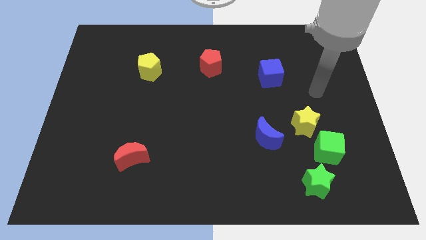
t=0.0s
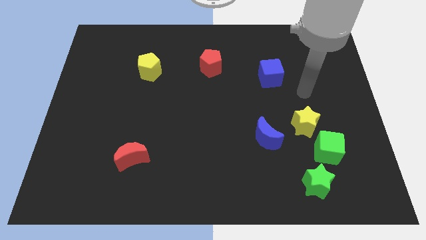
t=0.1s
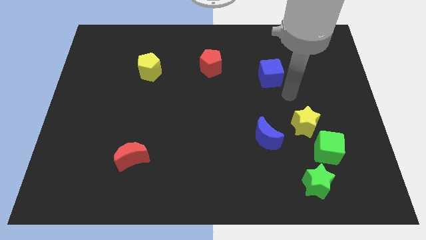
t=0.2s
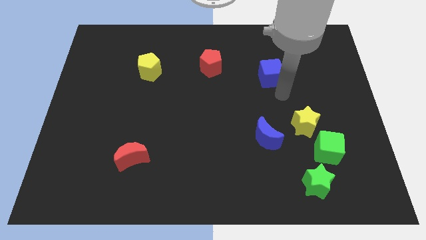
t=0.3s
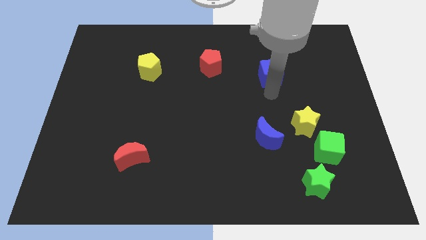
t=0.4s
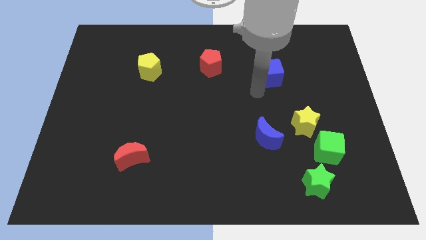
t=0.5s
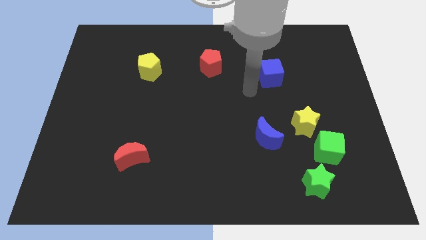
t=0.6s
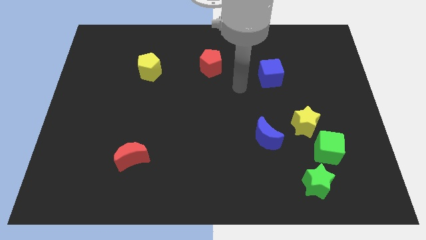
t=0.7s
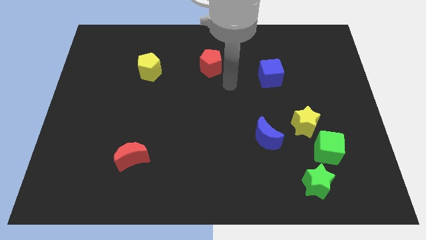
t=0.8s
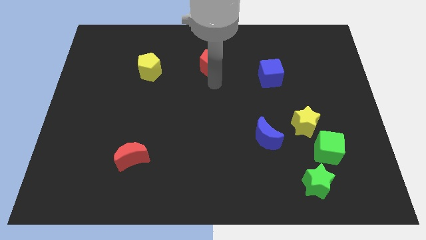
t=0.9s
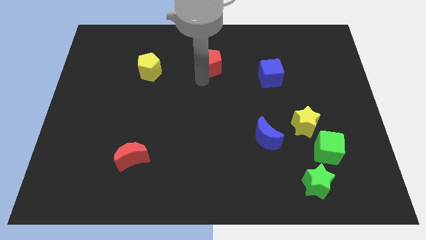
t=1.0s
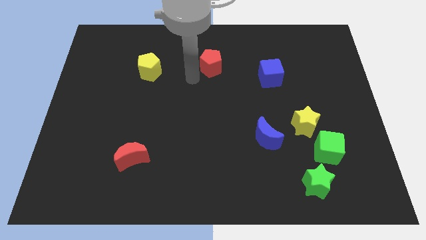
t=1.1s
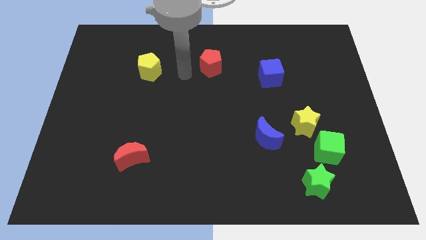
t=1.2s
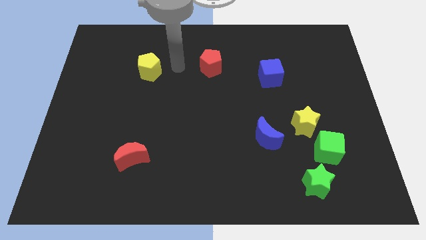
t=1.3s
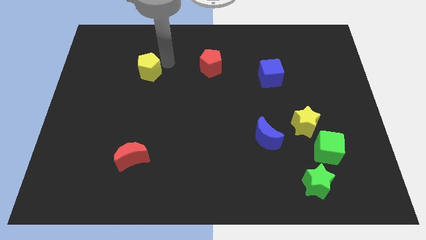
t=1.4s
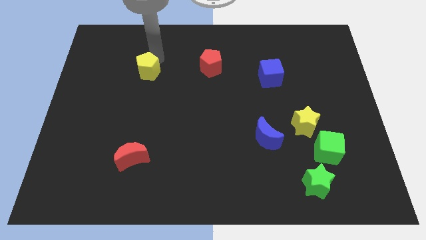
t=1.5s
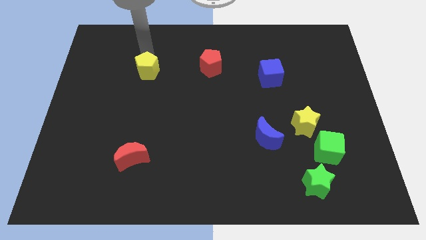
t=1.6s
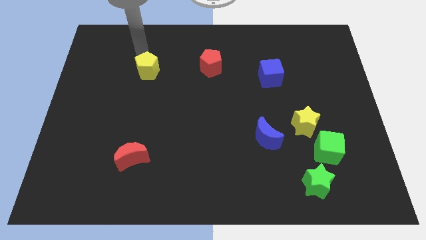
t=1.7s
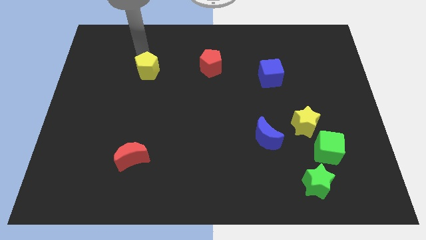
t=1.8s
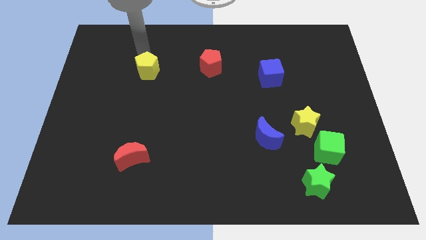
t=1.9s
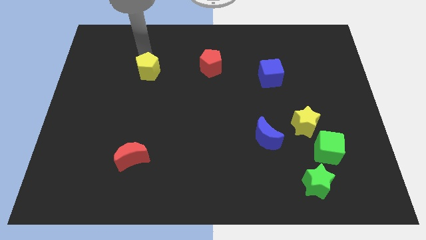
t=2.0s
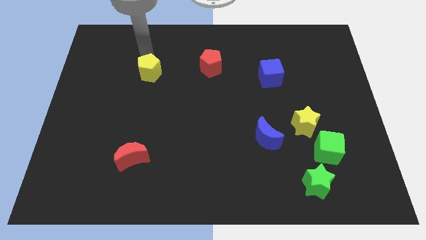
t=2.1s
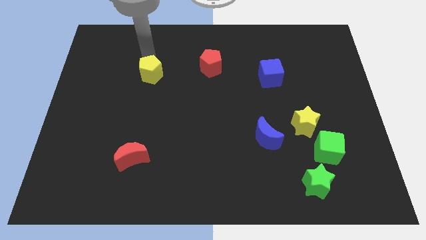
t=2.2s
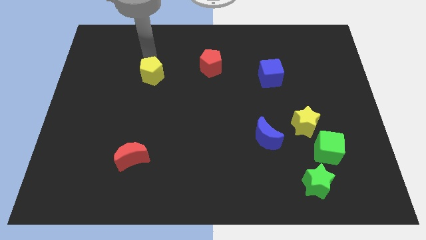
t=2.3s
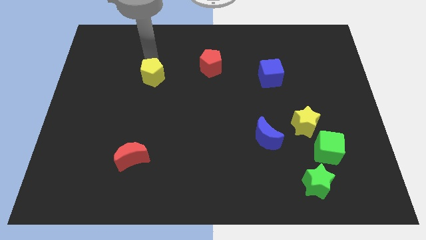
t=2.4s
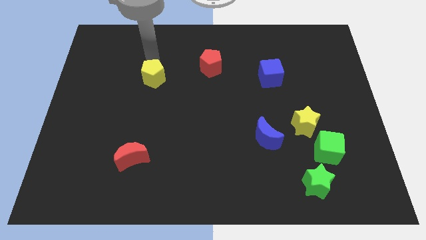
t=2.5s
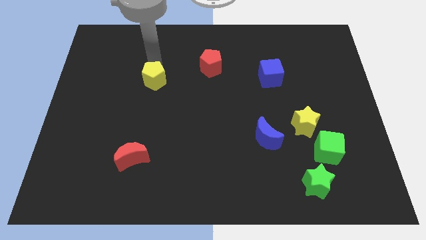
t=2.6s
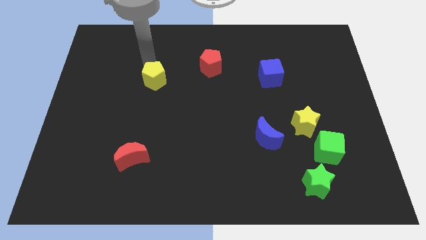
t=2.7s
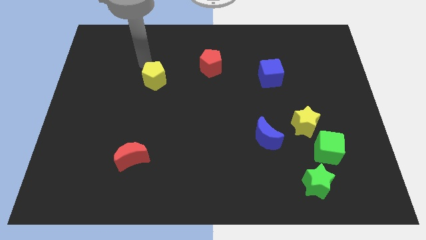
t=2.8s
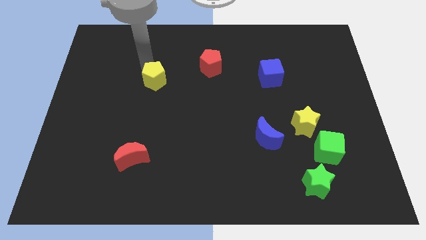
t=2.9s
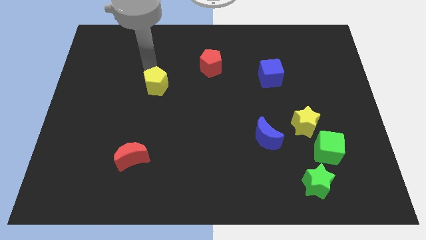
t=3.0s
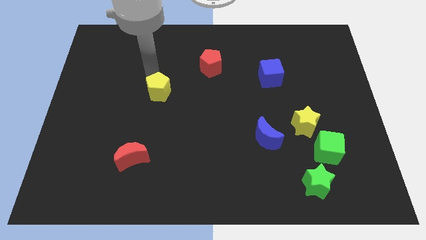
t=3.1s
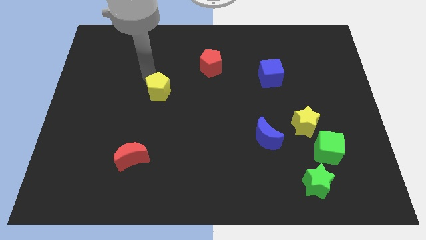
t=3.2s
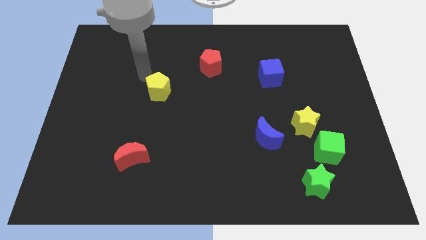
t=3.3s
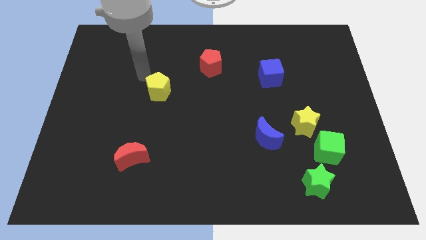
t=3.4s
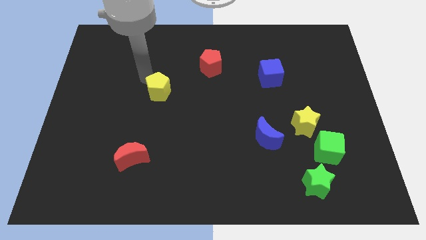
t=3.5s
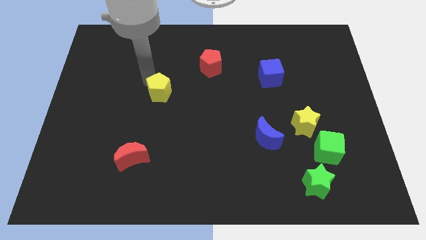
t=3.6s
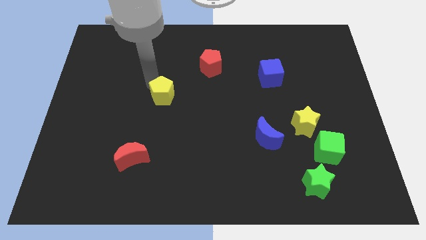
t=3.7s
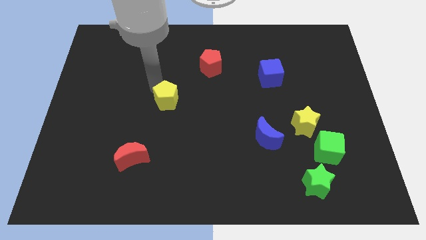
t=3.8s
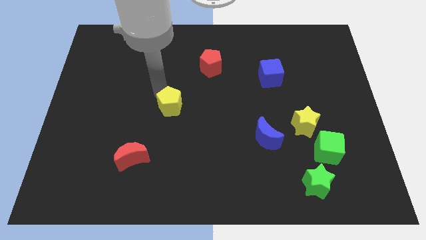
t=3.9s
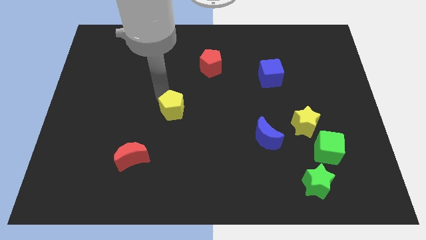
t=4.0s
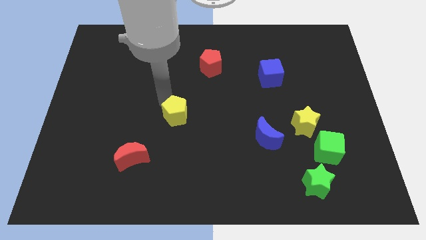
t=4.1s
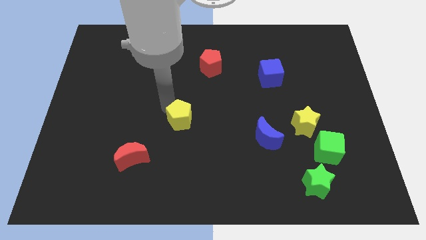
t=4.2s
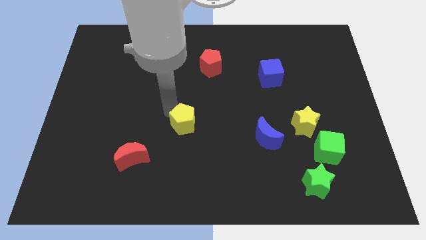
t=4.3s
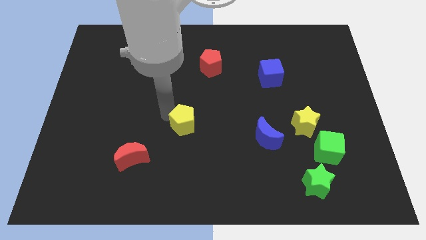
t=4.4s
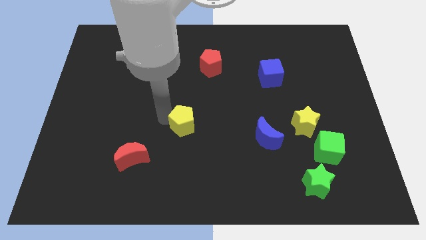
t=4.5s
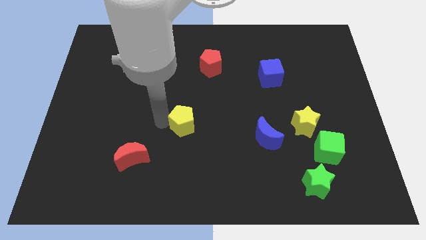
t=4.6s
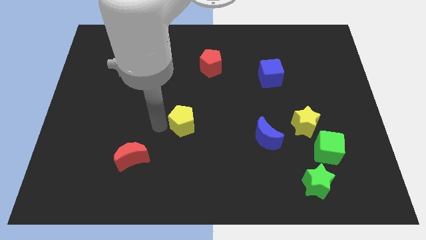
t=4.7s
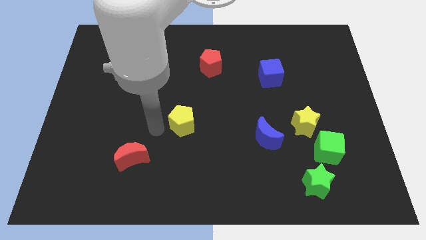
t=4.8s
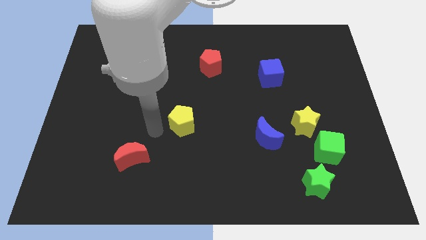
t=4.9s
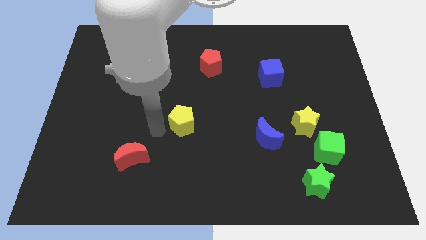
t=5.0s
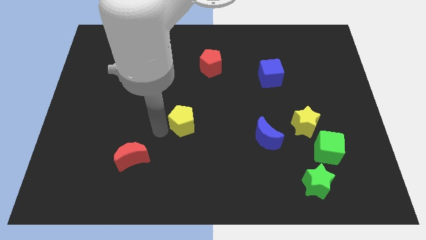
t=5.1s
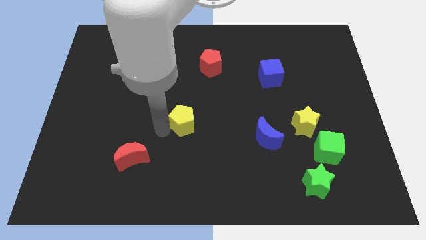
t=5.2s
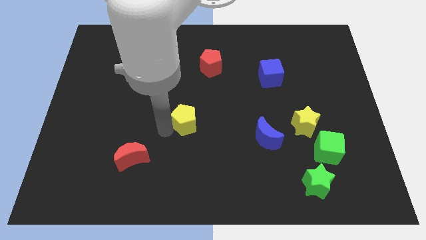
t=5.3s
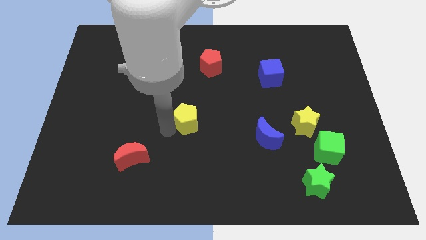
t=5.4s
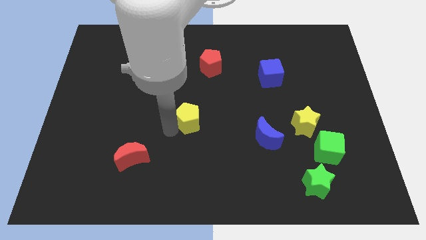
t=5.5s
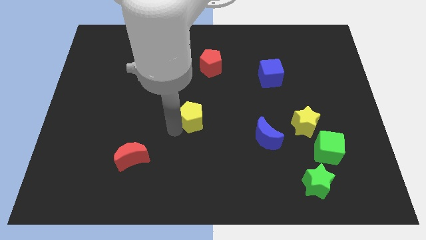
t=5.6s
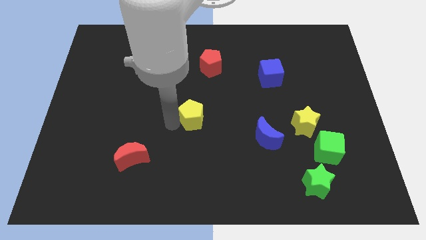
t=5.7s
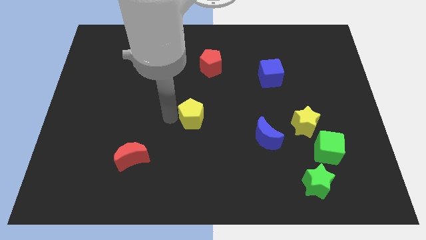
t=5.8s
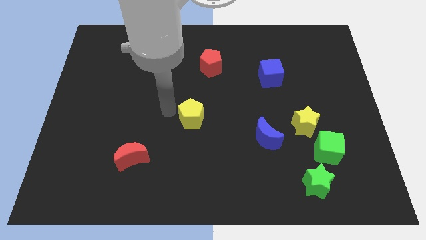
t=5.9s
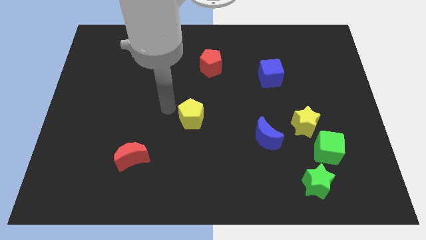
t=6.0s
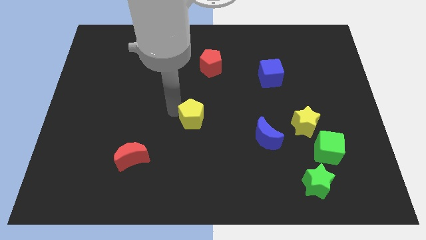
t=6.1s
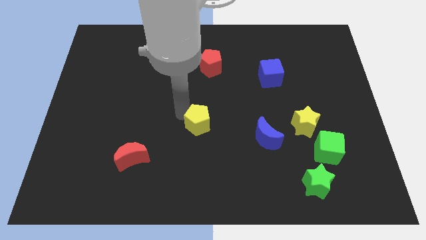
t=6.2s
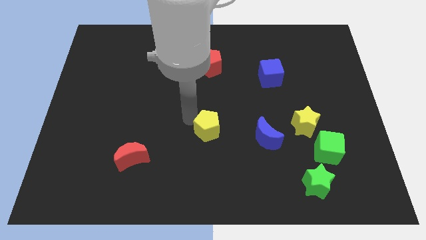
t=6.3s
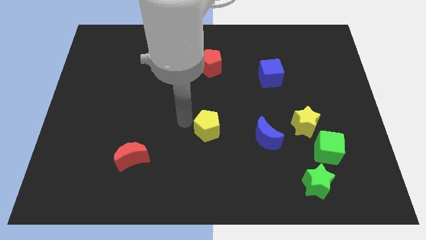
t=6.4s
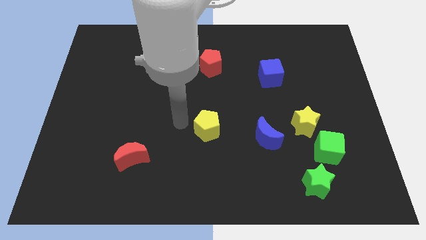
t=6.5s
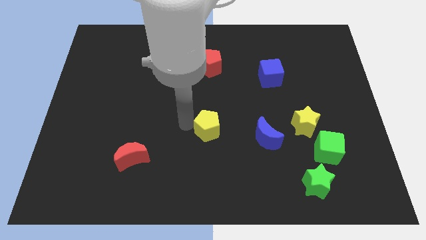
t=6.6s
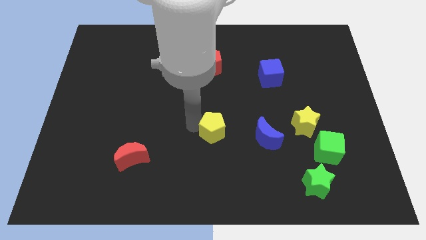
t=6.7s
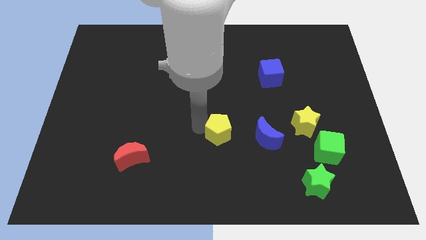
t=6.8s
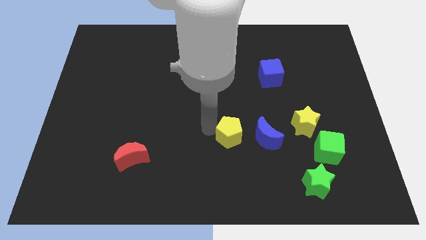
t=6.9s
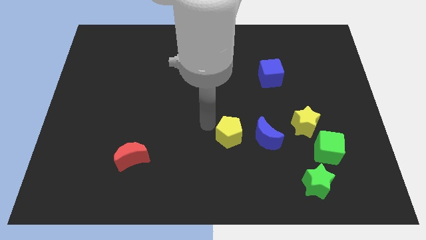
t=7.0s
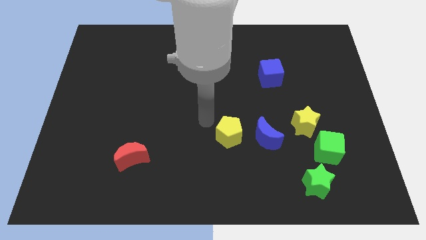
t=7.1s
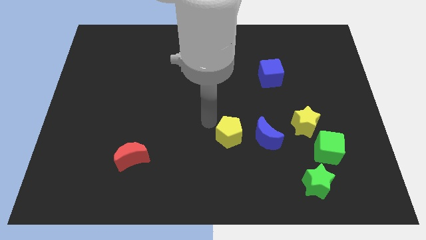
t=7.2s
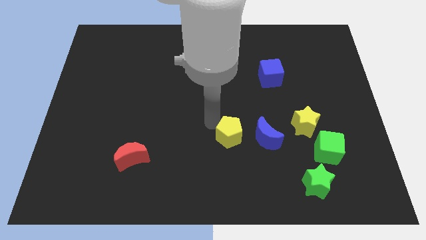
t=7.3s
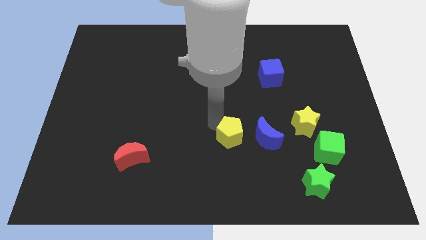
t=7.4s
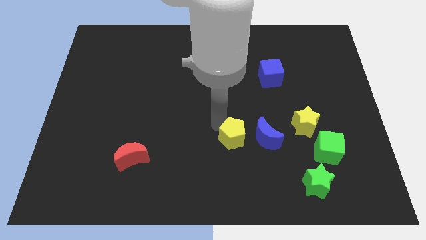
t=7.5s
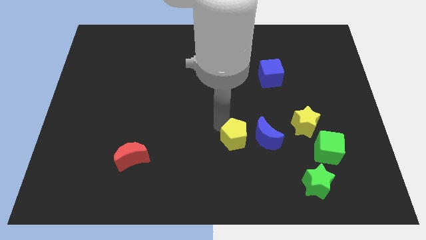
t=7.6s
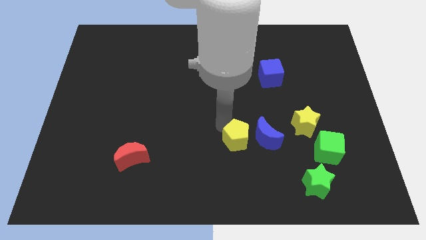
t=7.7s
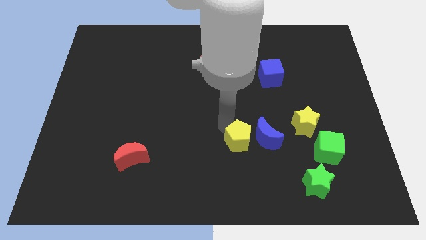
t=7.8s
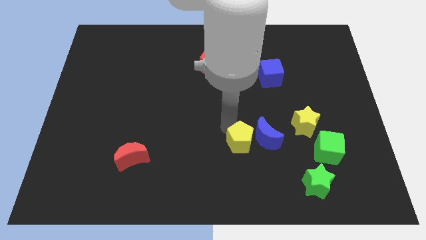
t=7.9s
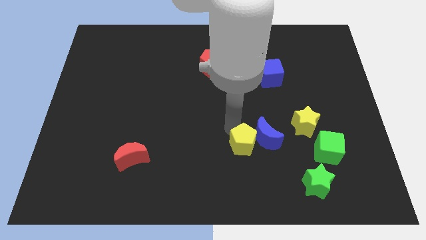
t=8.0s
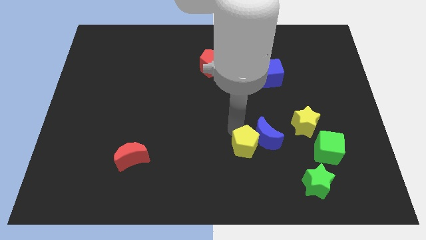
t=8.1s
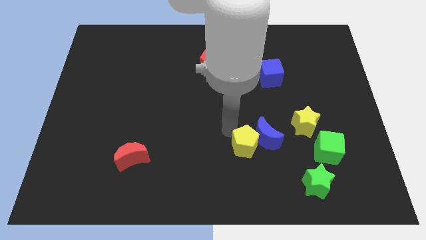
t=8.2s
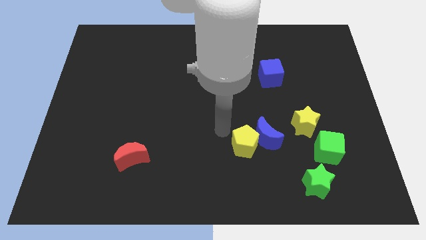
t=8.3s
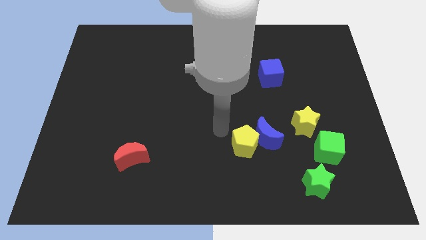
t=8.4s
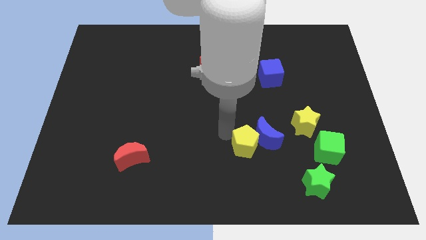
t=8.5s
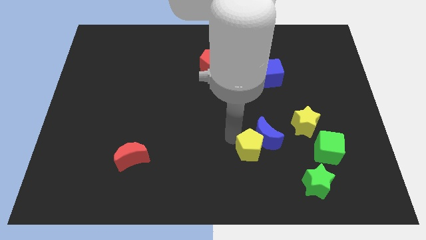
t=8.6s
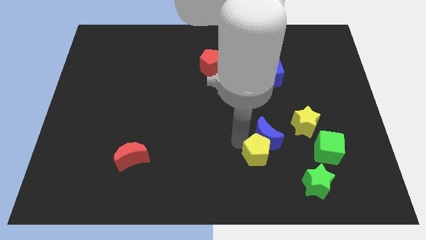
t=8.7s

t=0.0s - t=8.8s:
push the yellow pentagon to the bottom right side of the blue moon
